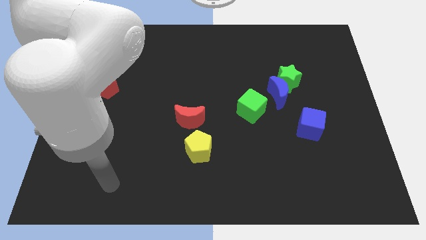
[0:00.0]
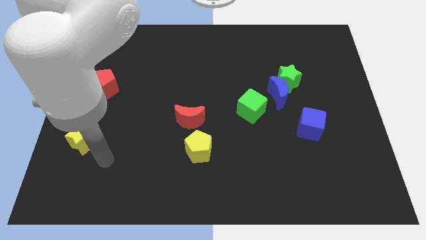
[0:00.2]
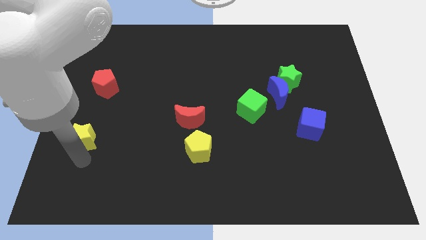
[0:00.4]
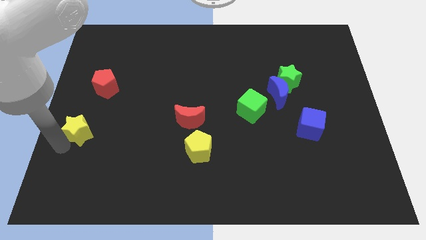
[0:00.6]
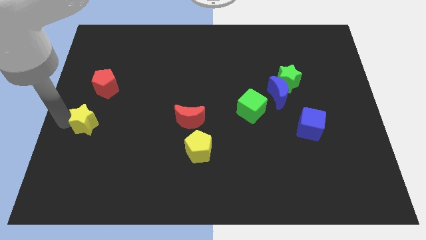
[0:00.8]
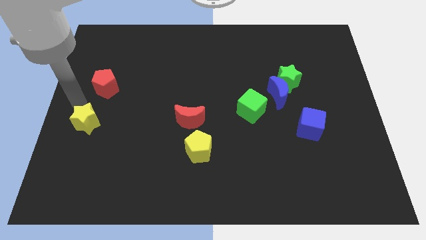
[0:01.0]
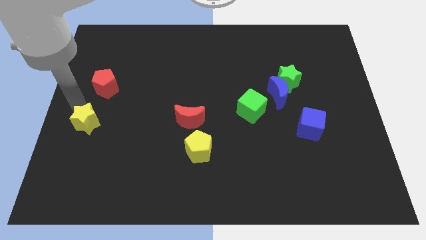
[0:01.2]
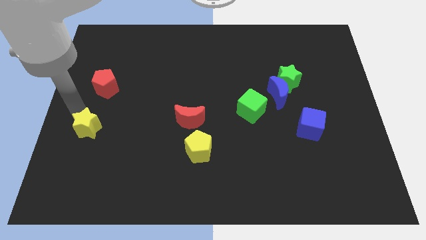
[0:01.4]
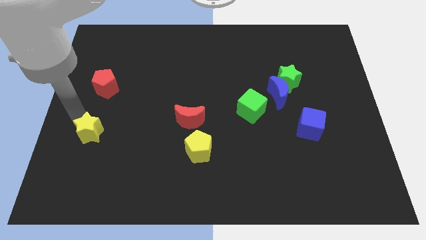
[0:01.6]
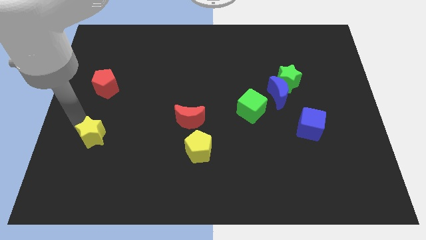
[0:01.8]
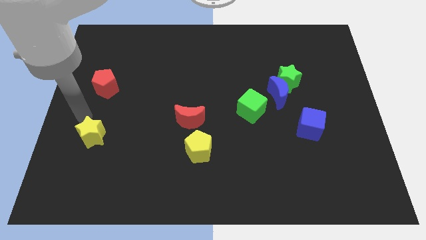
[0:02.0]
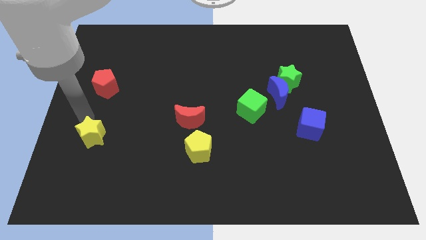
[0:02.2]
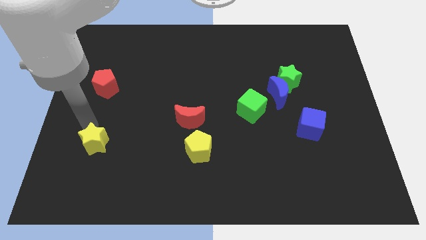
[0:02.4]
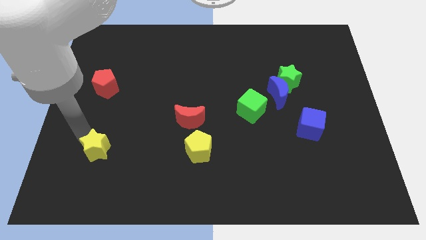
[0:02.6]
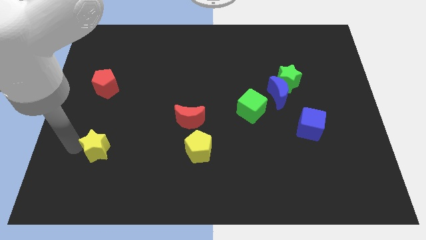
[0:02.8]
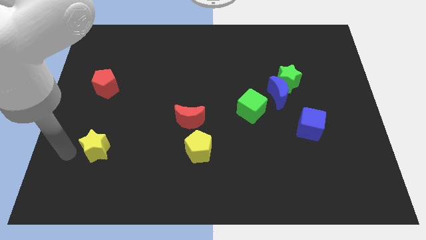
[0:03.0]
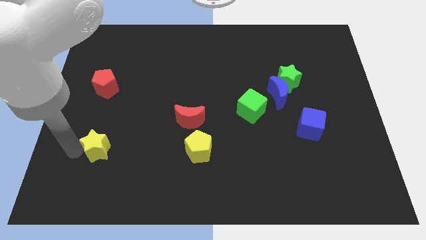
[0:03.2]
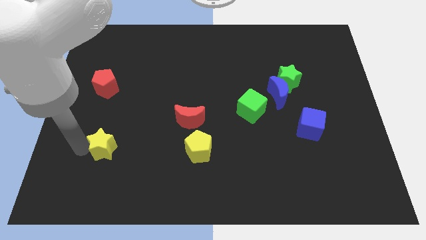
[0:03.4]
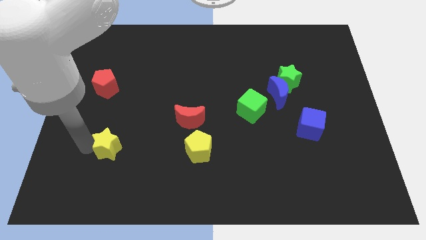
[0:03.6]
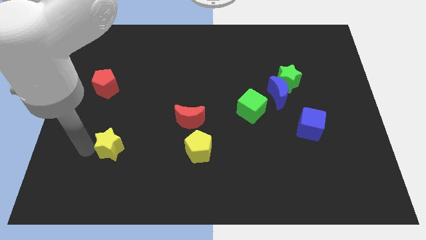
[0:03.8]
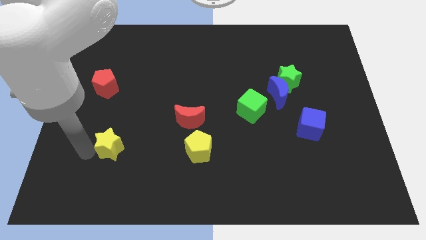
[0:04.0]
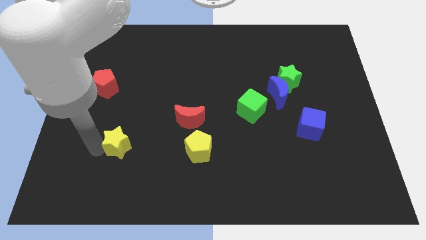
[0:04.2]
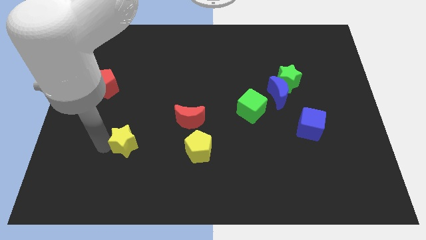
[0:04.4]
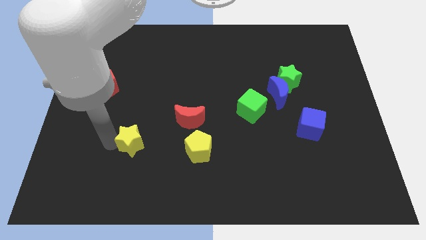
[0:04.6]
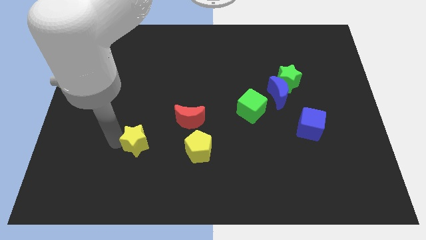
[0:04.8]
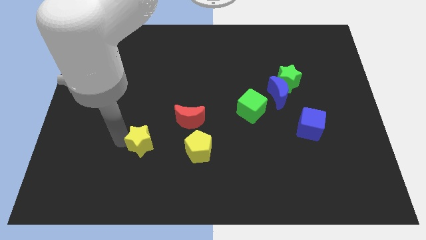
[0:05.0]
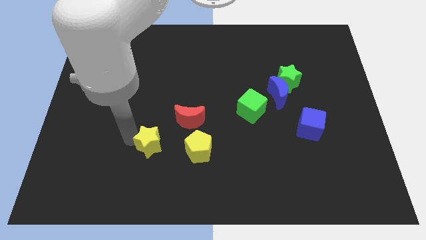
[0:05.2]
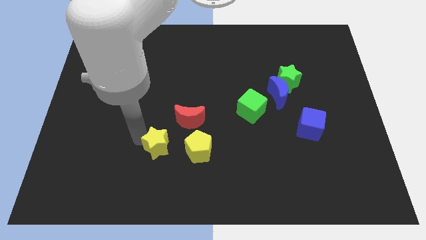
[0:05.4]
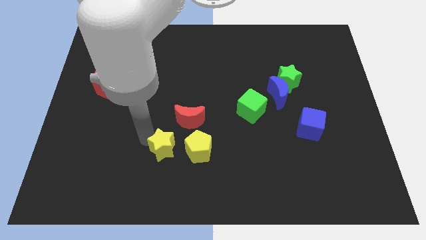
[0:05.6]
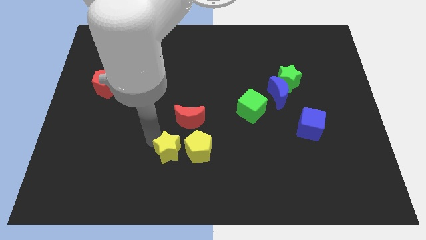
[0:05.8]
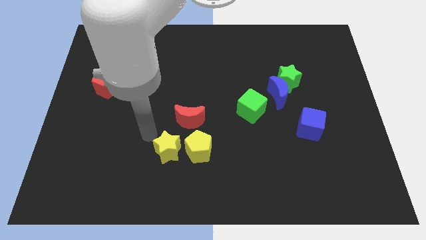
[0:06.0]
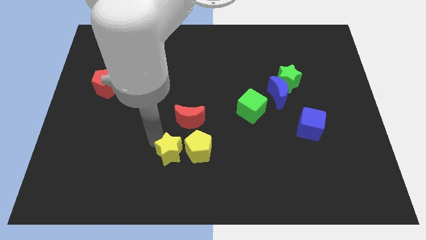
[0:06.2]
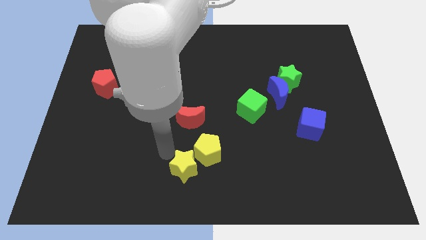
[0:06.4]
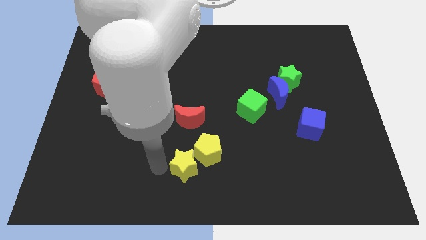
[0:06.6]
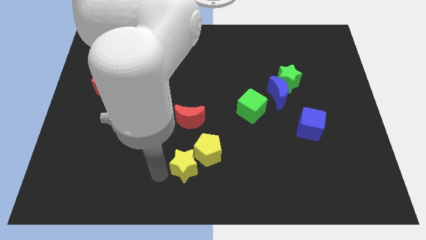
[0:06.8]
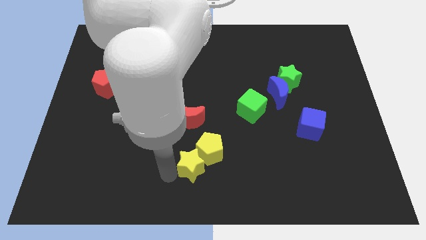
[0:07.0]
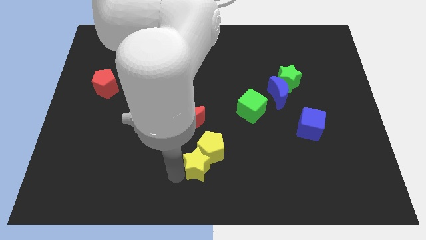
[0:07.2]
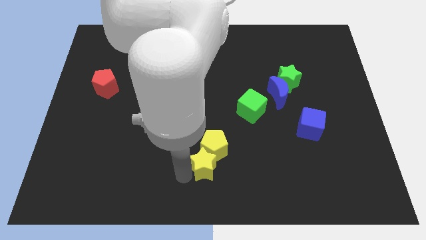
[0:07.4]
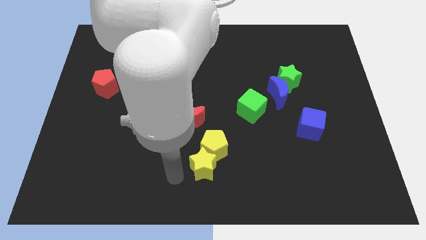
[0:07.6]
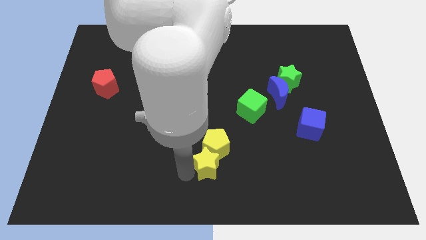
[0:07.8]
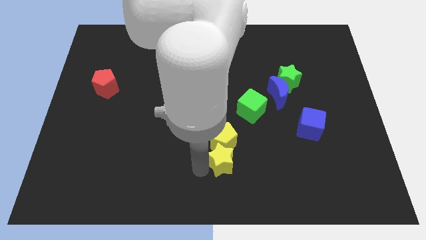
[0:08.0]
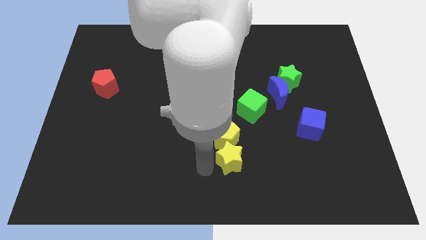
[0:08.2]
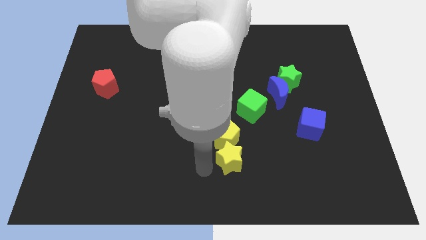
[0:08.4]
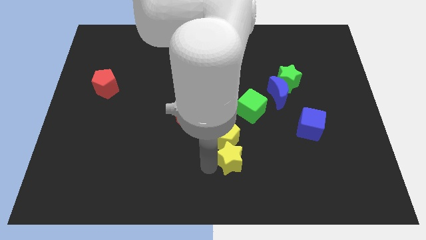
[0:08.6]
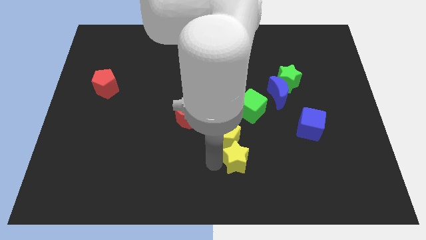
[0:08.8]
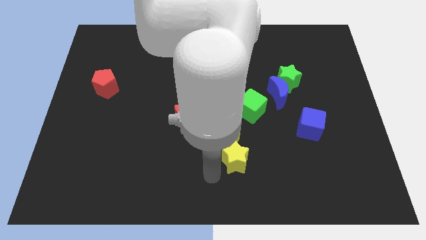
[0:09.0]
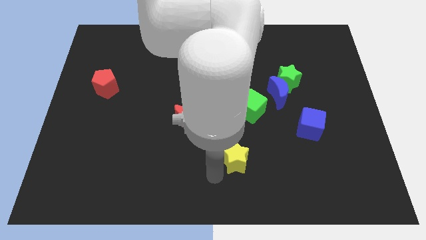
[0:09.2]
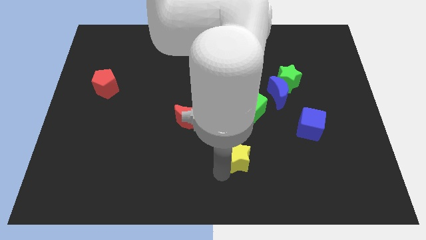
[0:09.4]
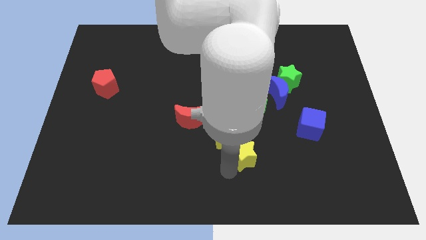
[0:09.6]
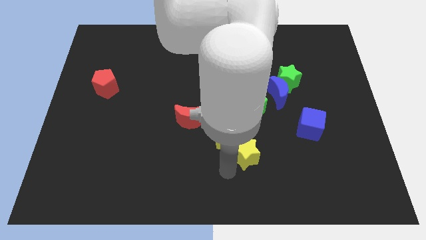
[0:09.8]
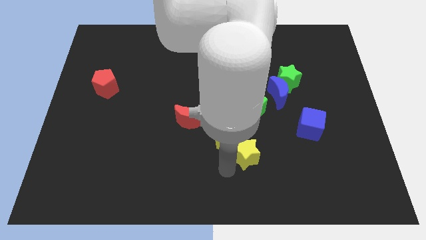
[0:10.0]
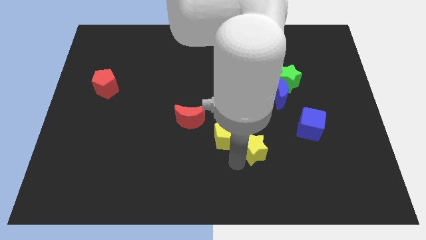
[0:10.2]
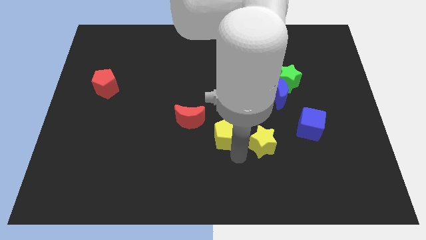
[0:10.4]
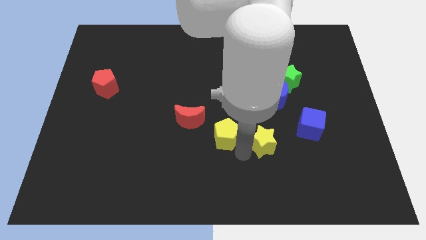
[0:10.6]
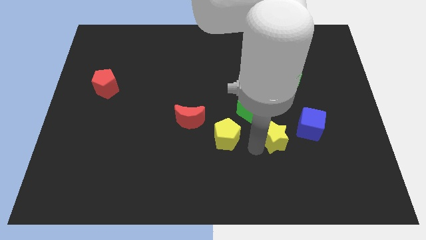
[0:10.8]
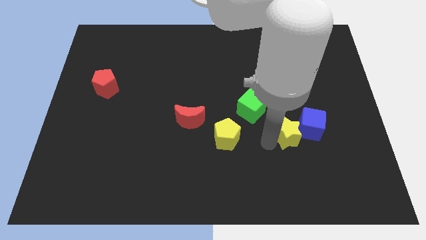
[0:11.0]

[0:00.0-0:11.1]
push the yellow star towards the blue cube

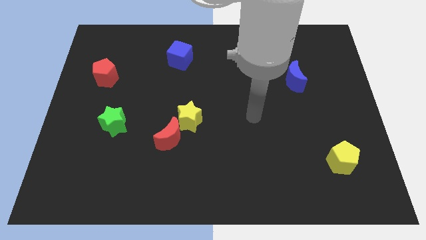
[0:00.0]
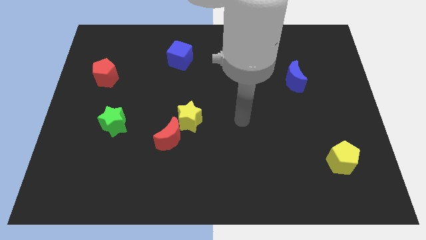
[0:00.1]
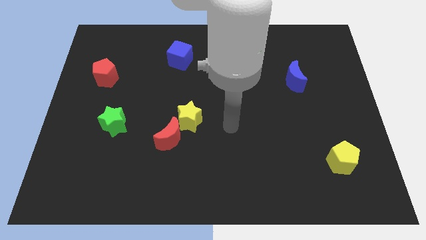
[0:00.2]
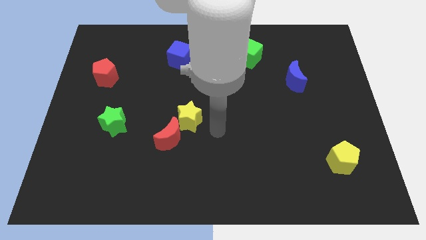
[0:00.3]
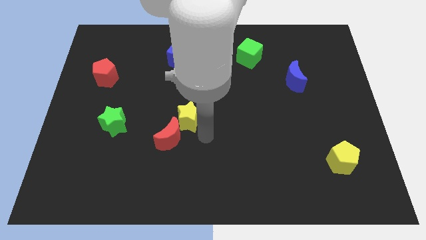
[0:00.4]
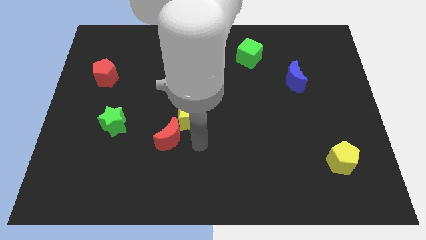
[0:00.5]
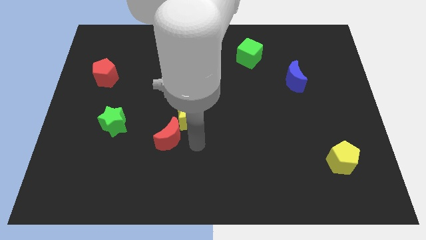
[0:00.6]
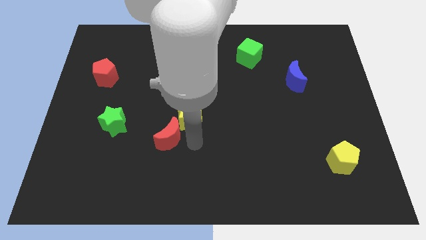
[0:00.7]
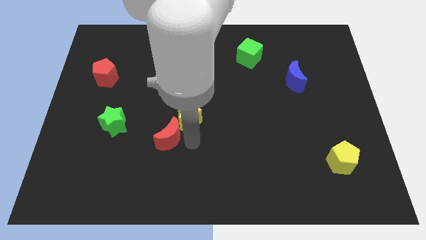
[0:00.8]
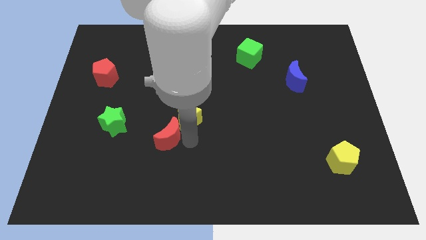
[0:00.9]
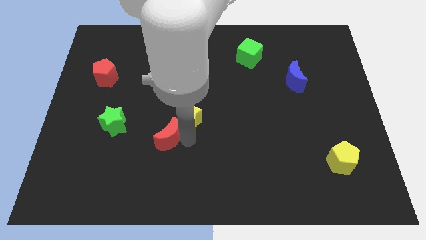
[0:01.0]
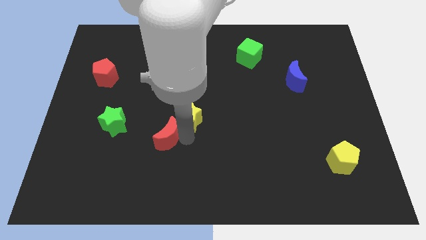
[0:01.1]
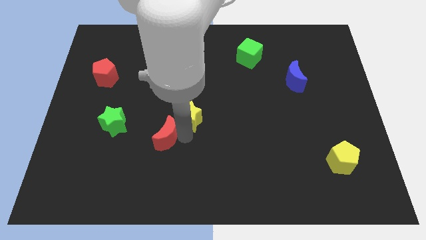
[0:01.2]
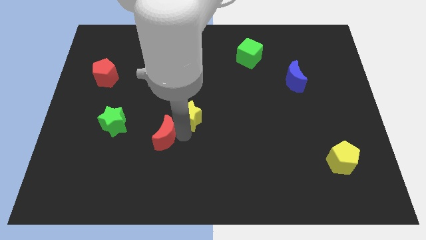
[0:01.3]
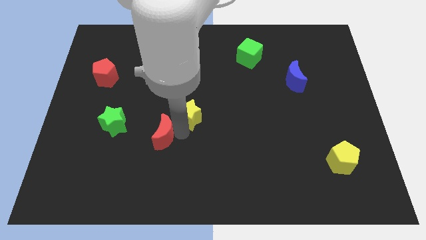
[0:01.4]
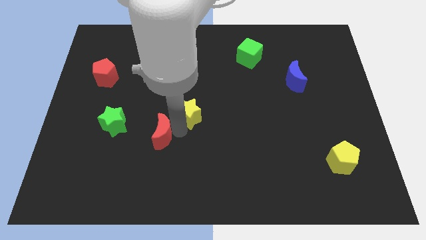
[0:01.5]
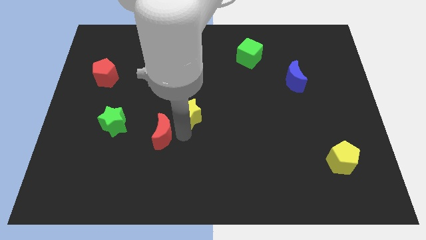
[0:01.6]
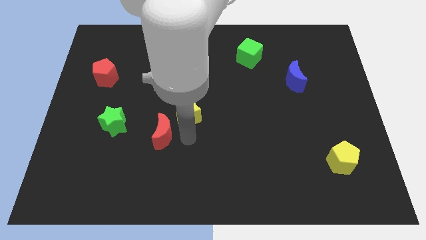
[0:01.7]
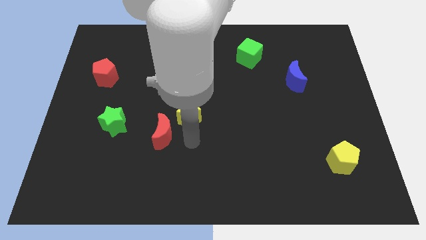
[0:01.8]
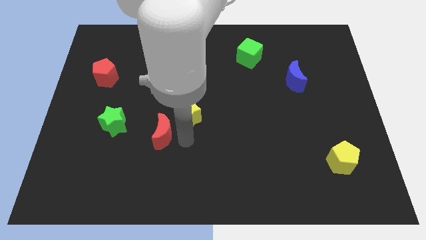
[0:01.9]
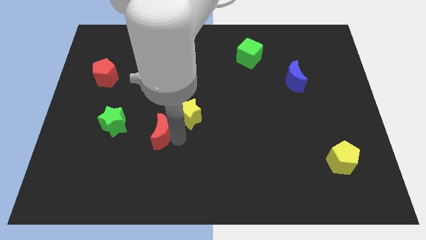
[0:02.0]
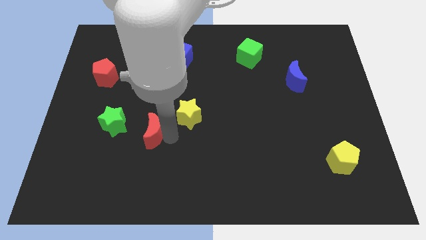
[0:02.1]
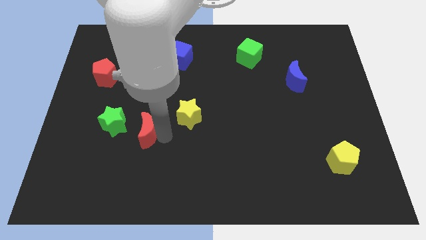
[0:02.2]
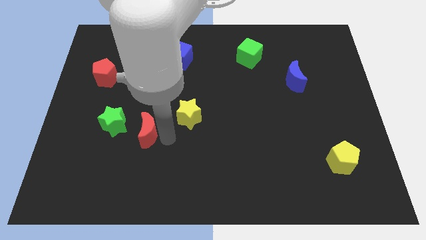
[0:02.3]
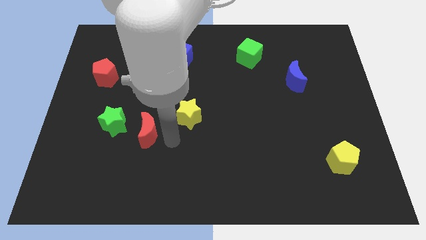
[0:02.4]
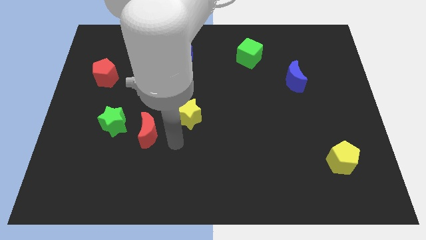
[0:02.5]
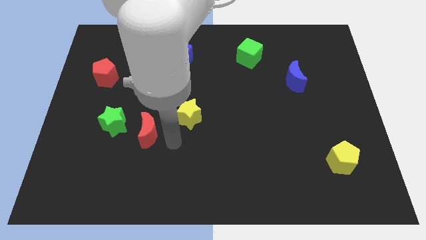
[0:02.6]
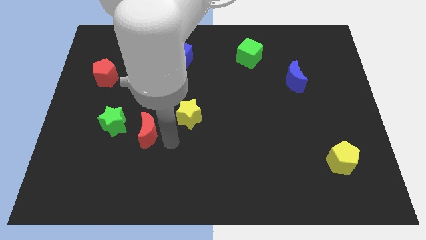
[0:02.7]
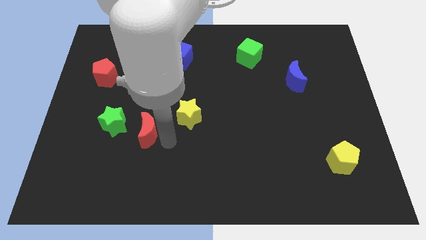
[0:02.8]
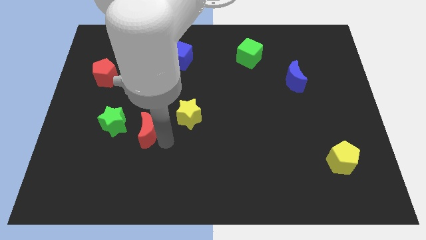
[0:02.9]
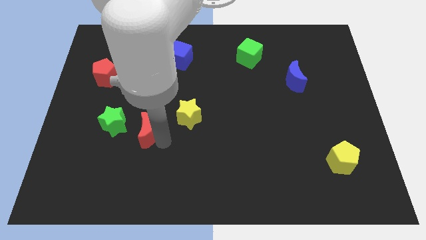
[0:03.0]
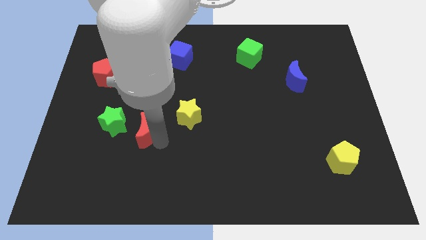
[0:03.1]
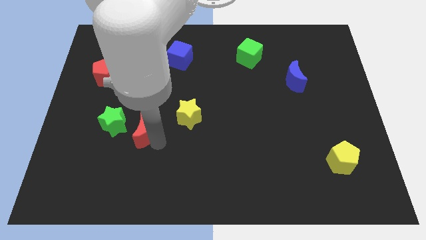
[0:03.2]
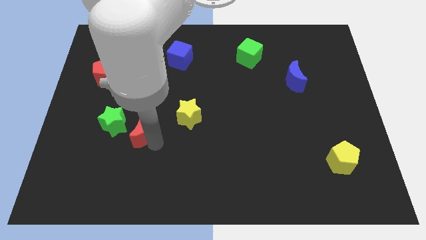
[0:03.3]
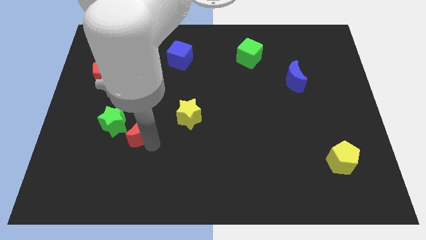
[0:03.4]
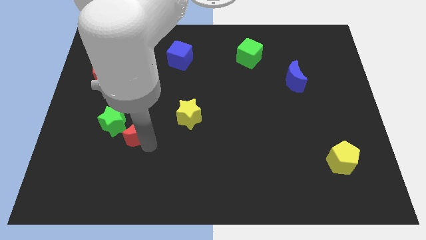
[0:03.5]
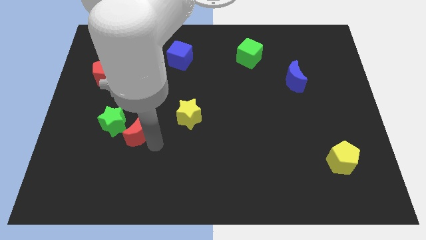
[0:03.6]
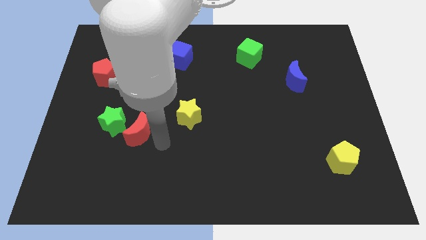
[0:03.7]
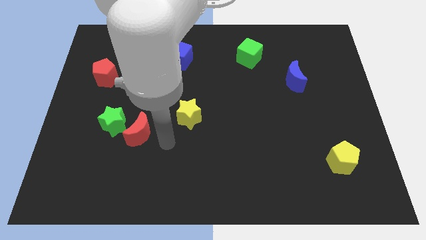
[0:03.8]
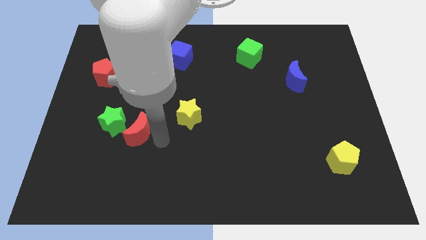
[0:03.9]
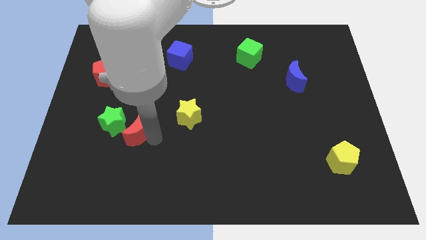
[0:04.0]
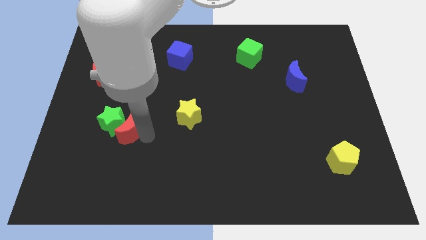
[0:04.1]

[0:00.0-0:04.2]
push the red moon close to the green star
